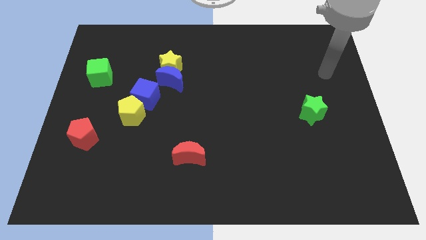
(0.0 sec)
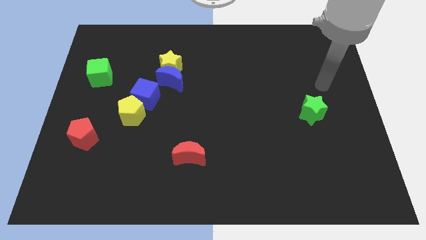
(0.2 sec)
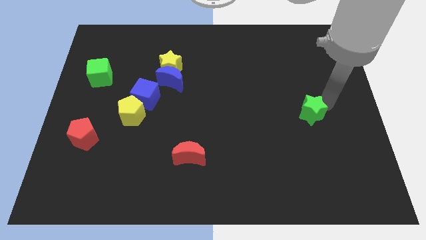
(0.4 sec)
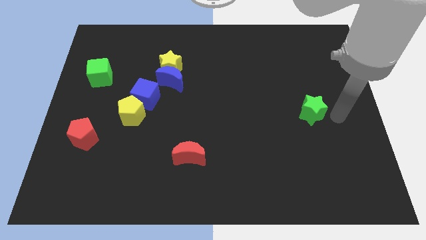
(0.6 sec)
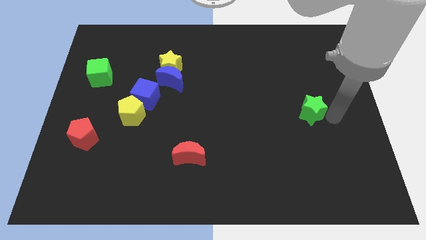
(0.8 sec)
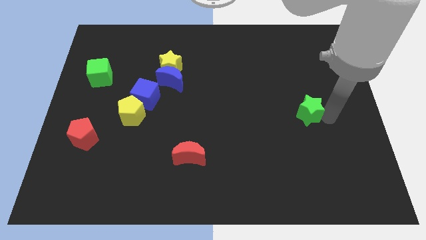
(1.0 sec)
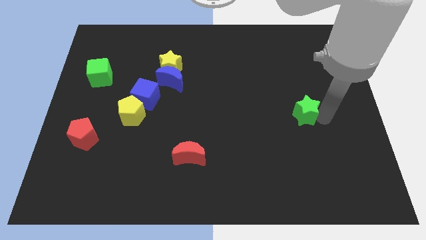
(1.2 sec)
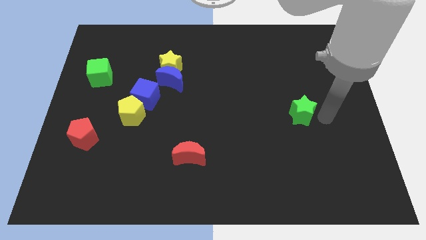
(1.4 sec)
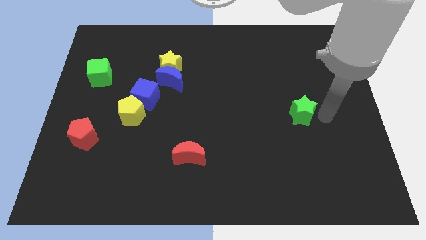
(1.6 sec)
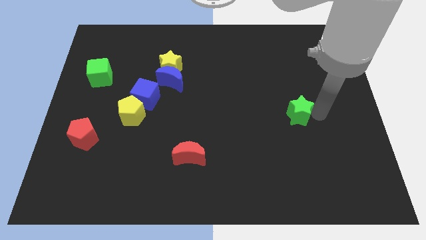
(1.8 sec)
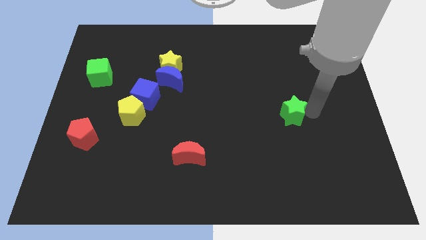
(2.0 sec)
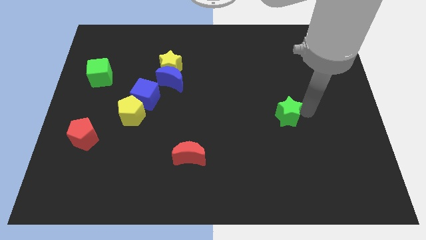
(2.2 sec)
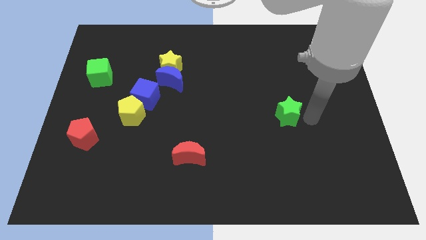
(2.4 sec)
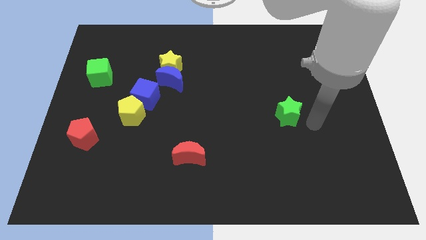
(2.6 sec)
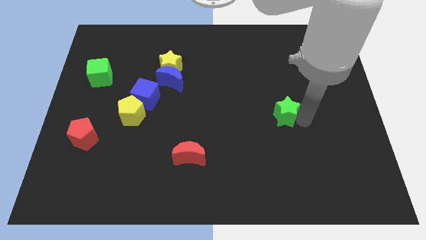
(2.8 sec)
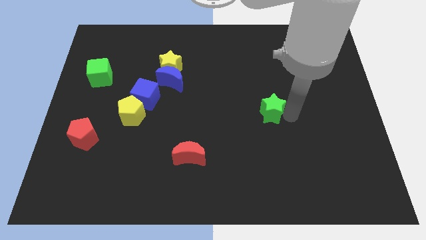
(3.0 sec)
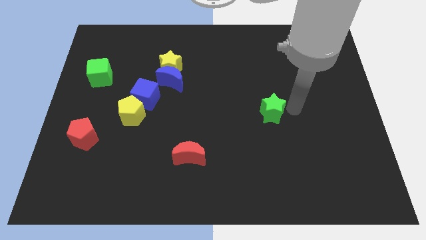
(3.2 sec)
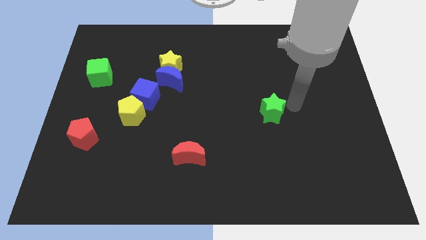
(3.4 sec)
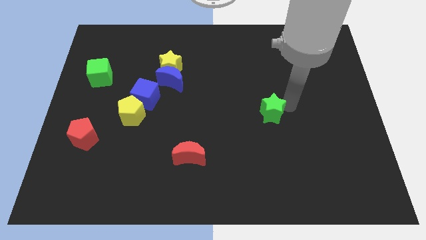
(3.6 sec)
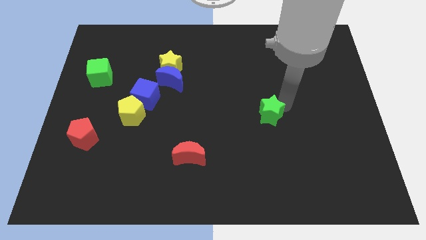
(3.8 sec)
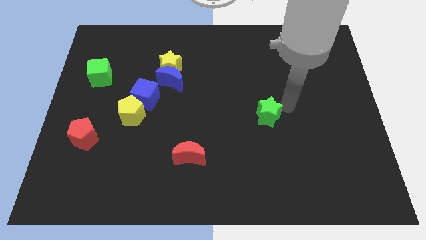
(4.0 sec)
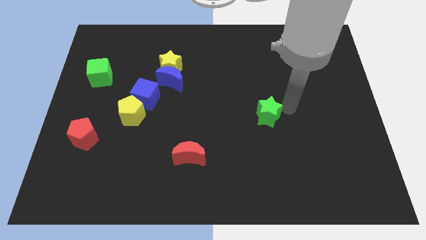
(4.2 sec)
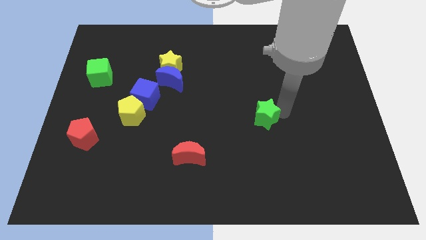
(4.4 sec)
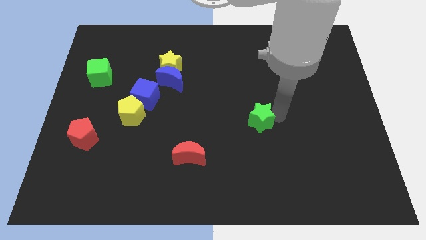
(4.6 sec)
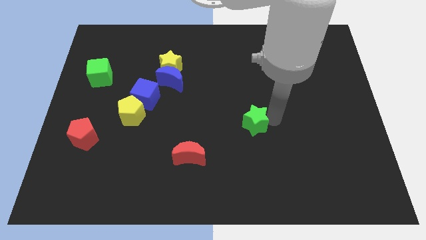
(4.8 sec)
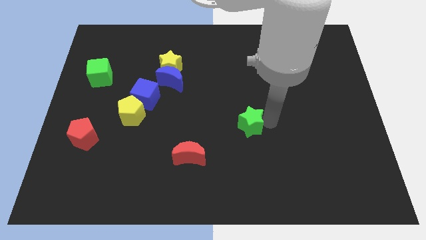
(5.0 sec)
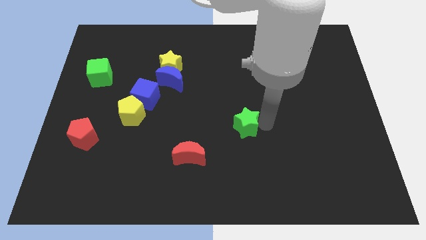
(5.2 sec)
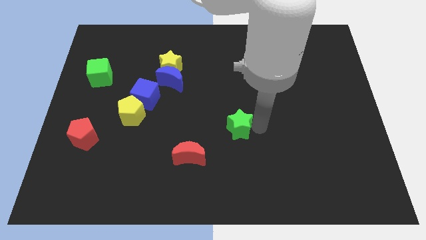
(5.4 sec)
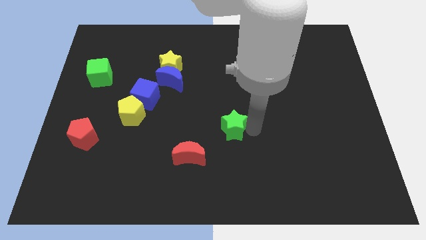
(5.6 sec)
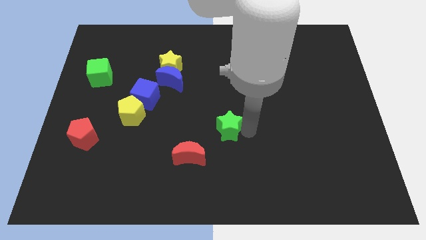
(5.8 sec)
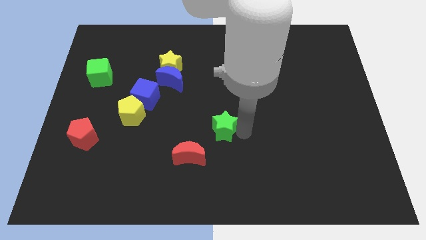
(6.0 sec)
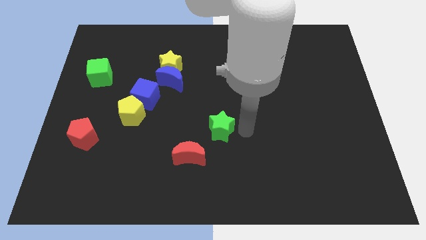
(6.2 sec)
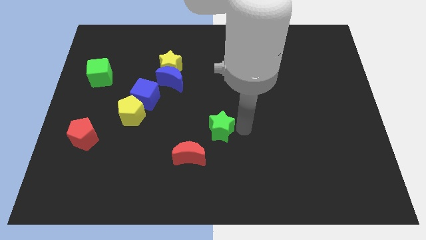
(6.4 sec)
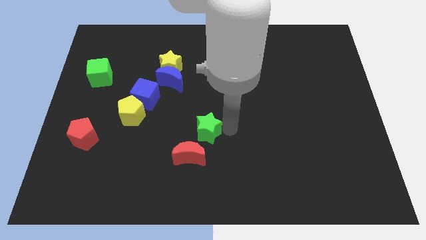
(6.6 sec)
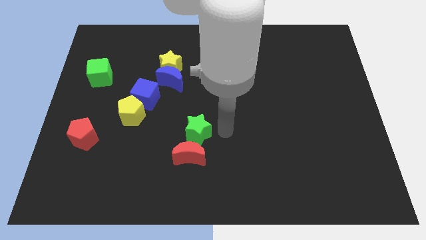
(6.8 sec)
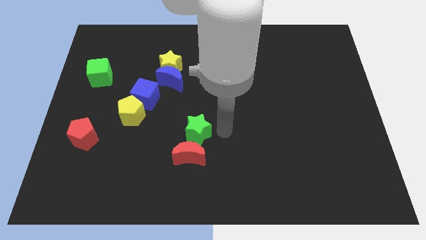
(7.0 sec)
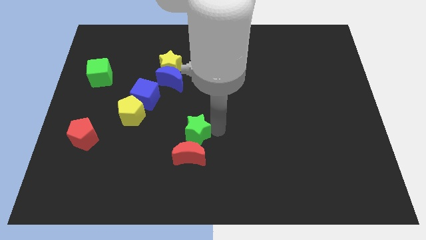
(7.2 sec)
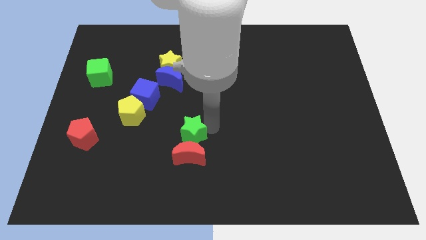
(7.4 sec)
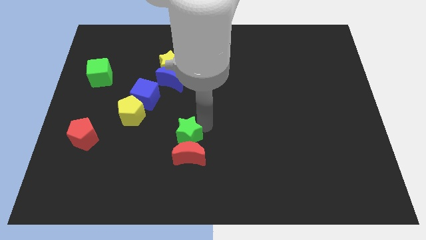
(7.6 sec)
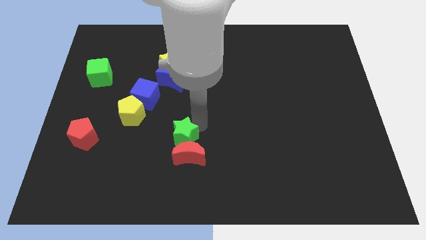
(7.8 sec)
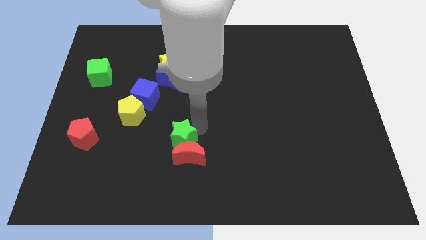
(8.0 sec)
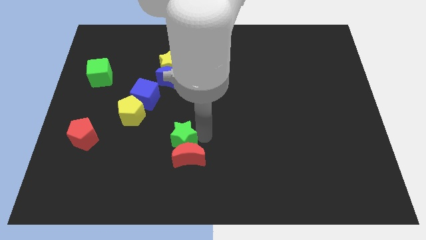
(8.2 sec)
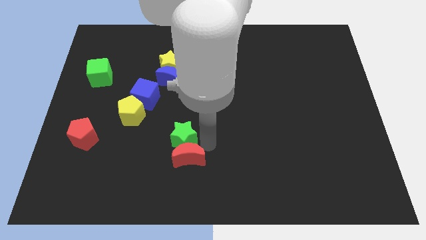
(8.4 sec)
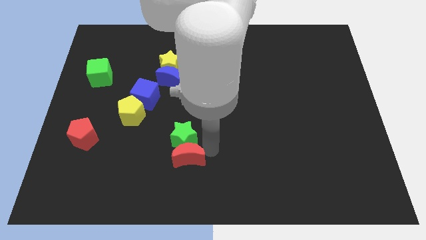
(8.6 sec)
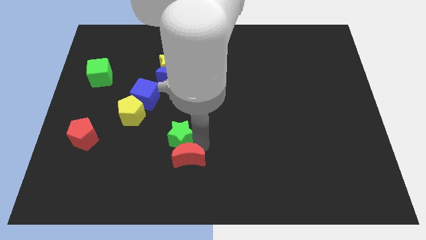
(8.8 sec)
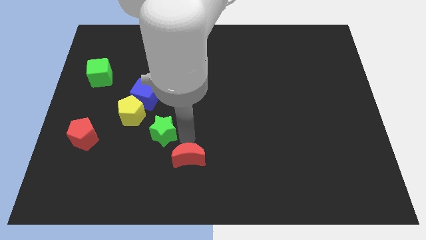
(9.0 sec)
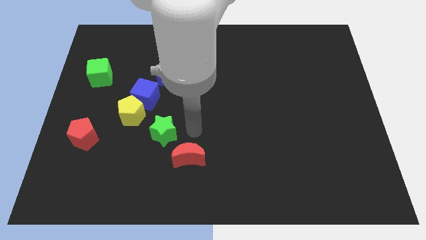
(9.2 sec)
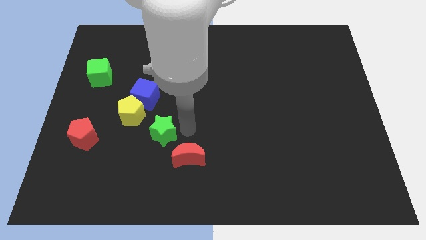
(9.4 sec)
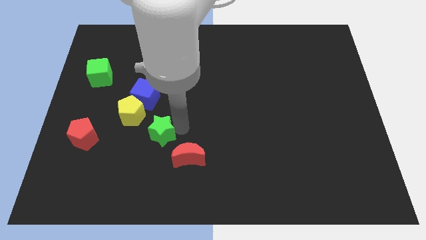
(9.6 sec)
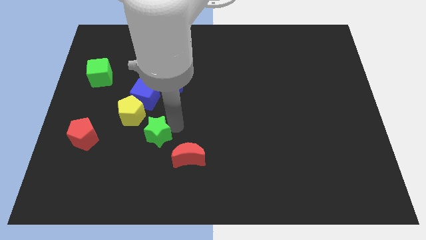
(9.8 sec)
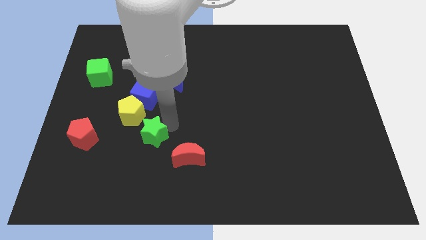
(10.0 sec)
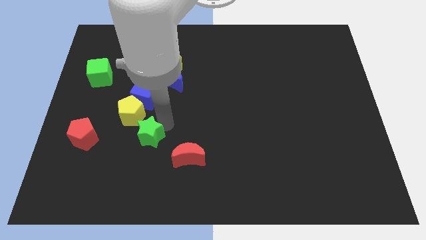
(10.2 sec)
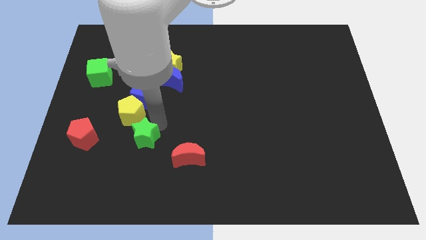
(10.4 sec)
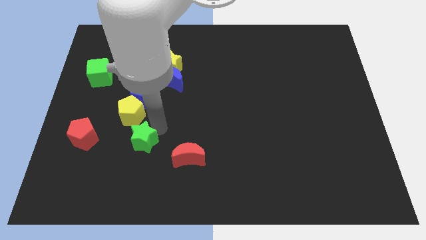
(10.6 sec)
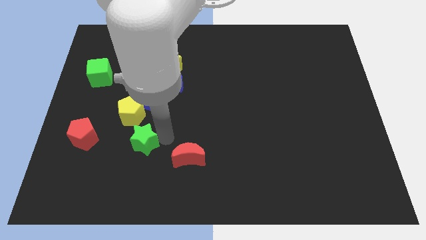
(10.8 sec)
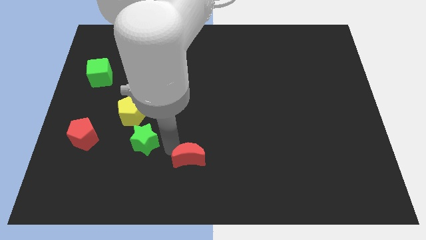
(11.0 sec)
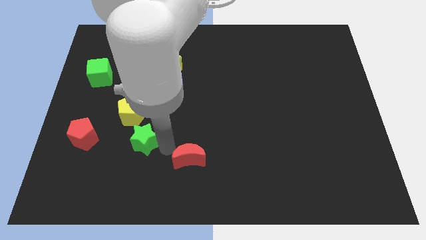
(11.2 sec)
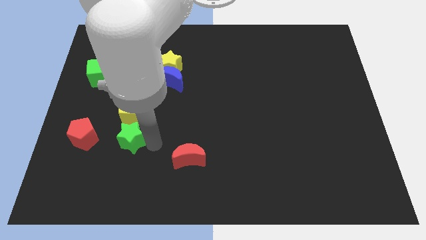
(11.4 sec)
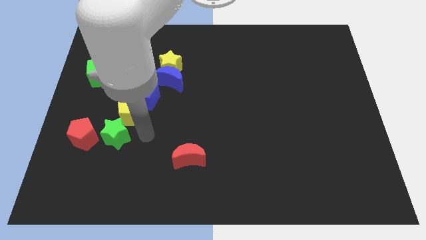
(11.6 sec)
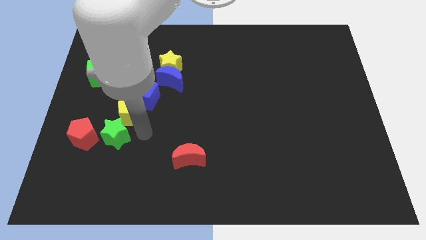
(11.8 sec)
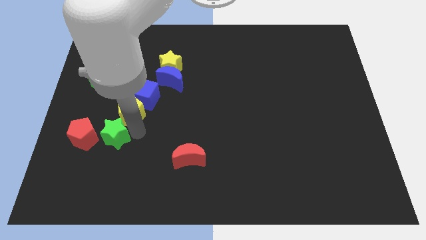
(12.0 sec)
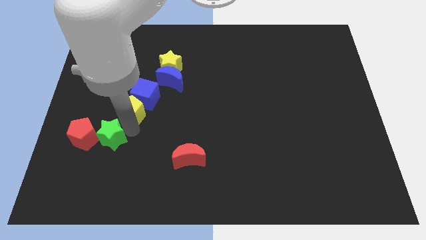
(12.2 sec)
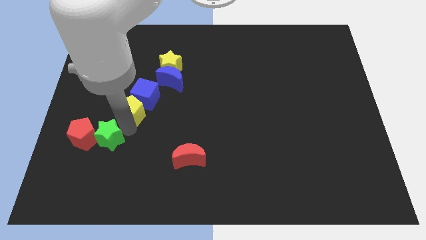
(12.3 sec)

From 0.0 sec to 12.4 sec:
move the green star to the red pentagon

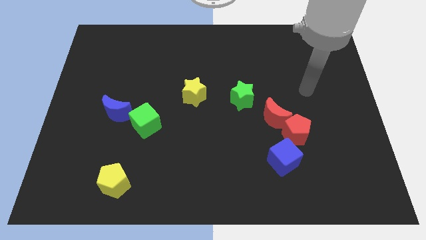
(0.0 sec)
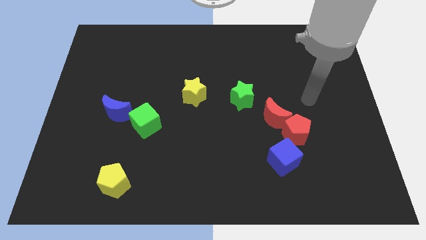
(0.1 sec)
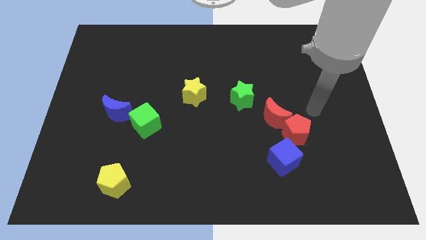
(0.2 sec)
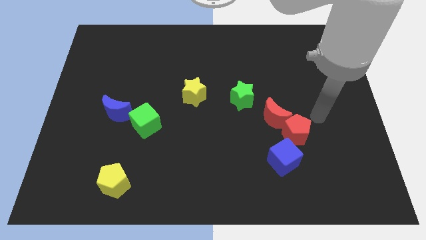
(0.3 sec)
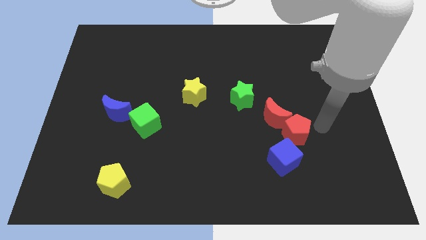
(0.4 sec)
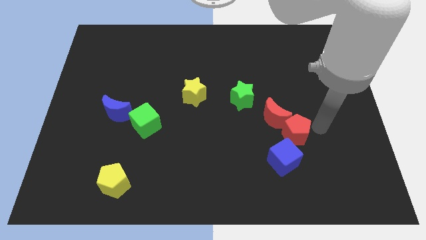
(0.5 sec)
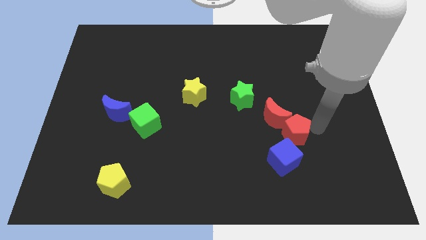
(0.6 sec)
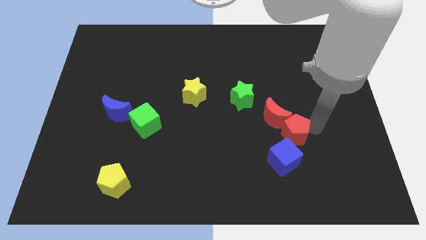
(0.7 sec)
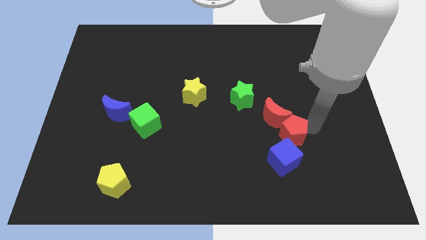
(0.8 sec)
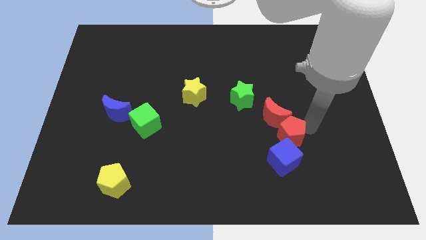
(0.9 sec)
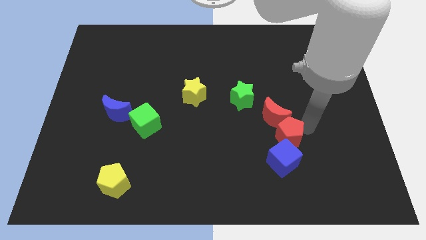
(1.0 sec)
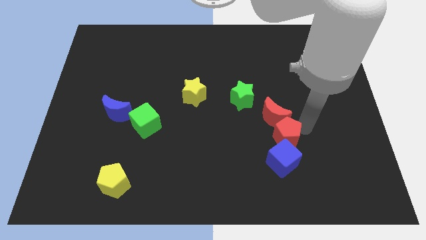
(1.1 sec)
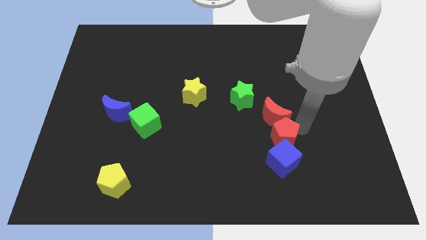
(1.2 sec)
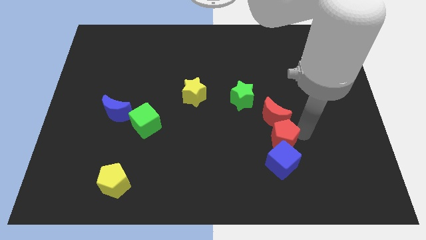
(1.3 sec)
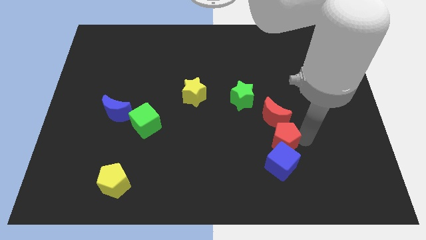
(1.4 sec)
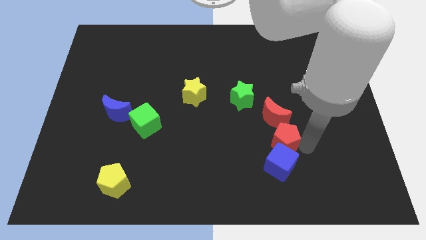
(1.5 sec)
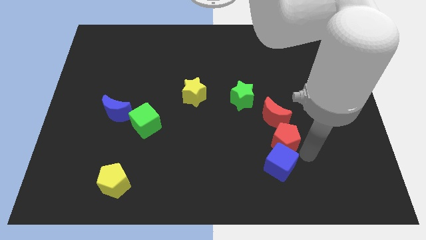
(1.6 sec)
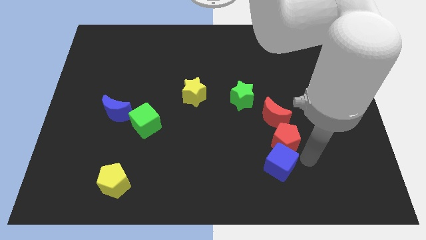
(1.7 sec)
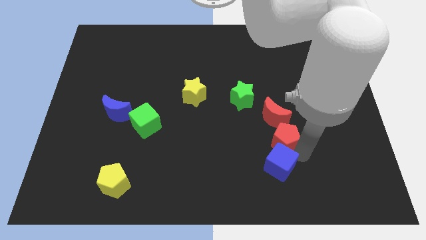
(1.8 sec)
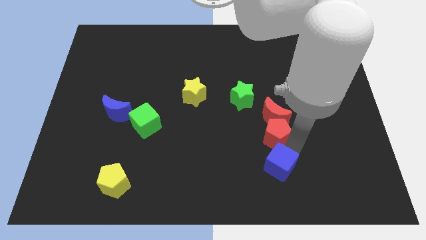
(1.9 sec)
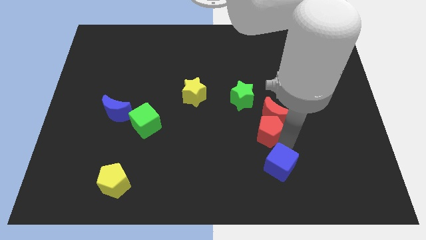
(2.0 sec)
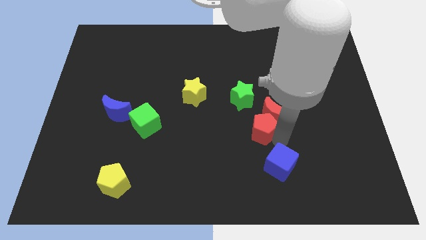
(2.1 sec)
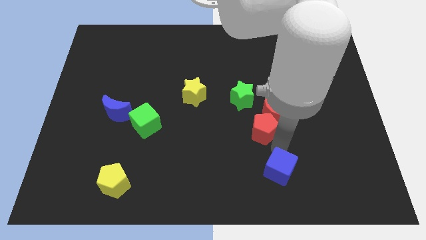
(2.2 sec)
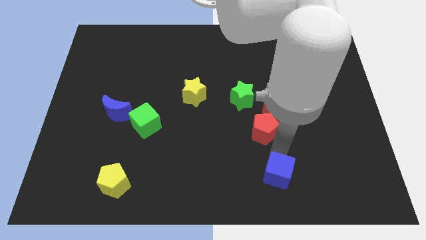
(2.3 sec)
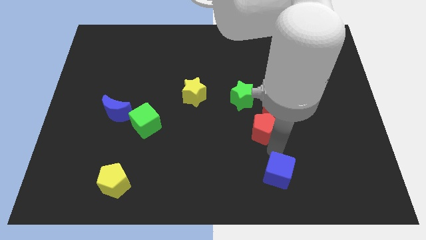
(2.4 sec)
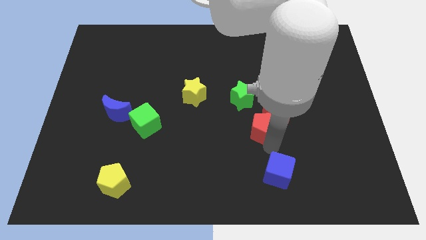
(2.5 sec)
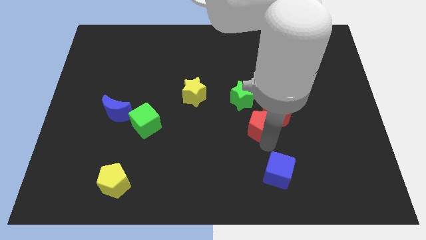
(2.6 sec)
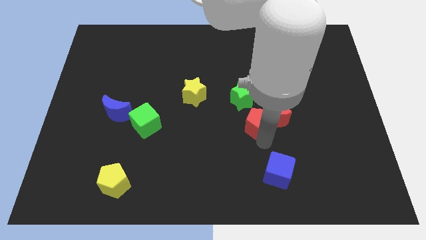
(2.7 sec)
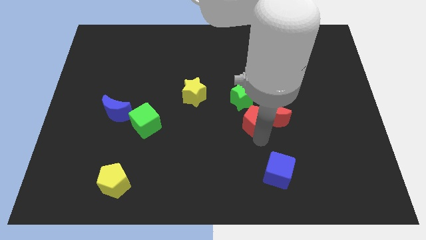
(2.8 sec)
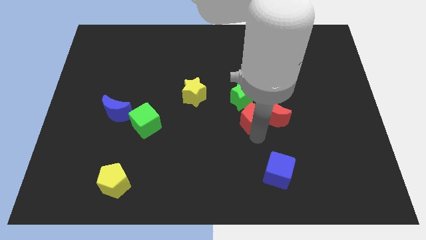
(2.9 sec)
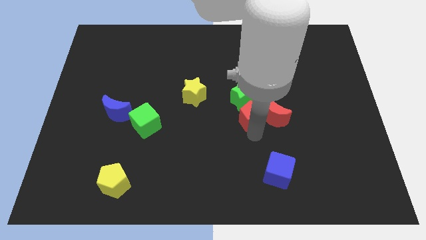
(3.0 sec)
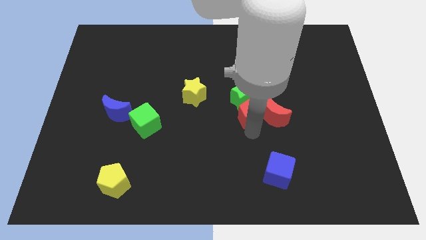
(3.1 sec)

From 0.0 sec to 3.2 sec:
put the red pentagon close to the green star
